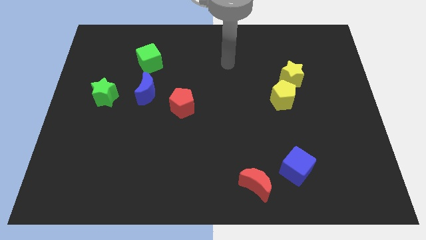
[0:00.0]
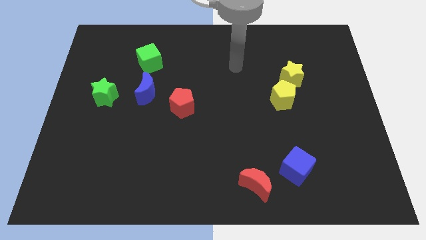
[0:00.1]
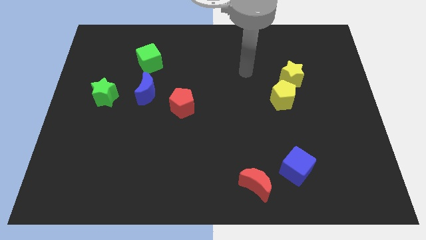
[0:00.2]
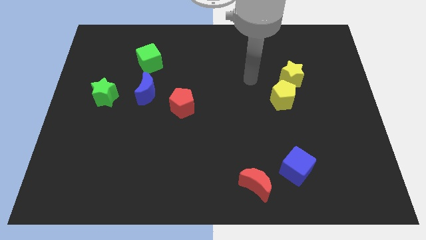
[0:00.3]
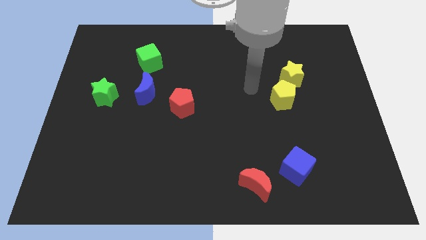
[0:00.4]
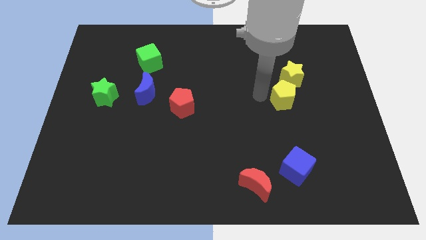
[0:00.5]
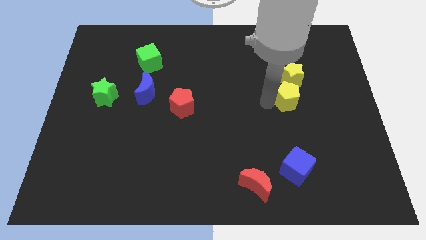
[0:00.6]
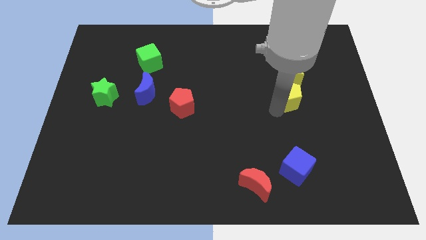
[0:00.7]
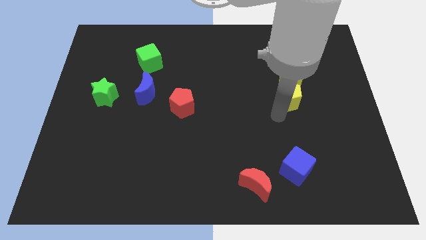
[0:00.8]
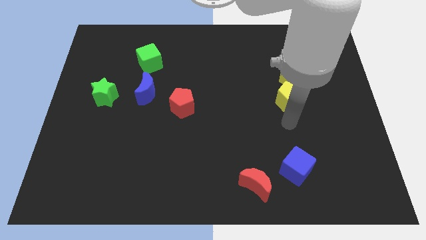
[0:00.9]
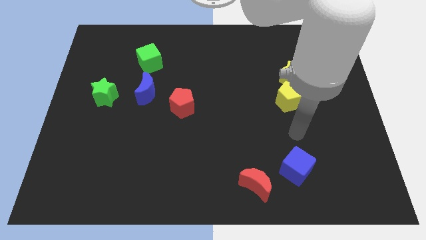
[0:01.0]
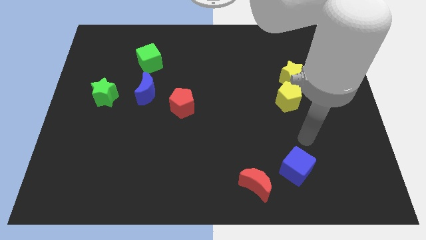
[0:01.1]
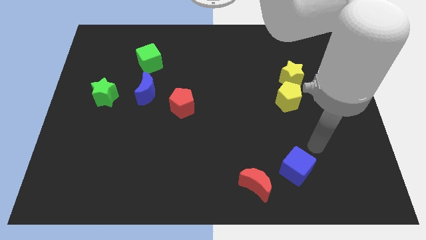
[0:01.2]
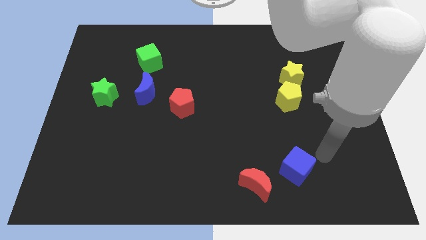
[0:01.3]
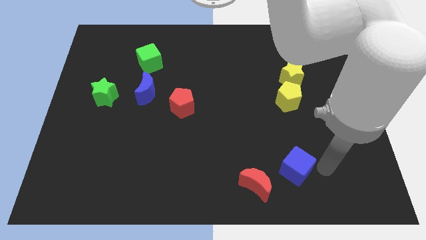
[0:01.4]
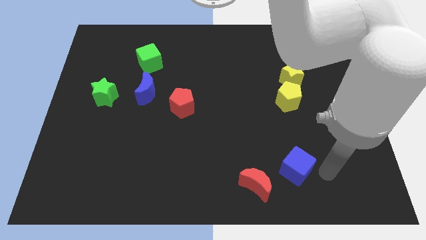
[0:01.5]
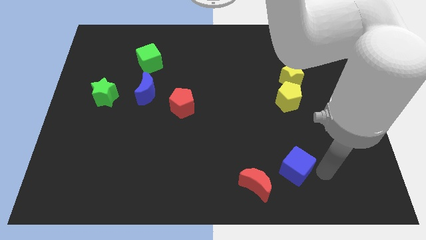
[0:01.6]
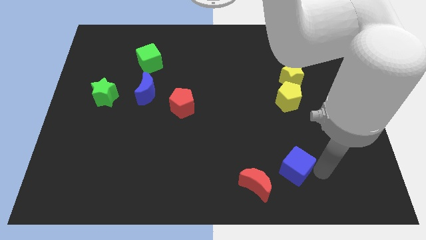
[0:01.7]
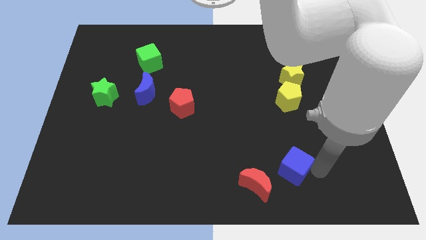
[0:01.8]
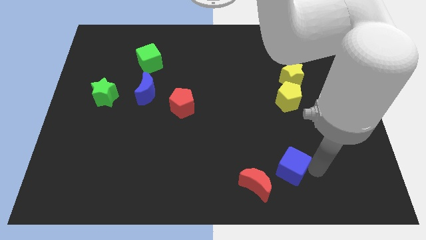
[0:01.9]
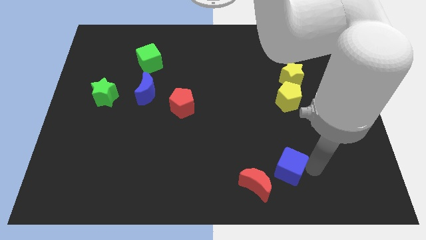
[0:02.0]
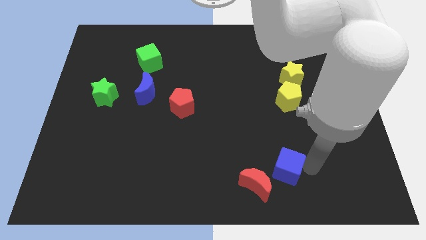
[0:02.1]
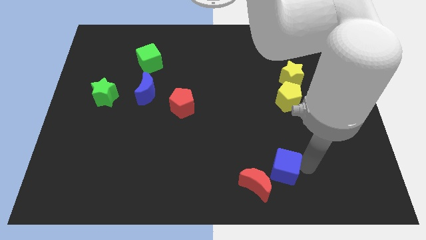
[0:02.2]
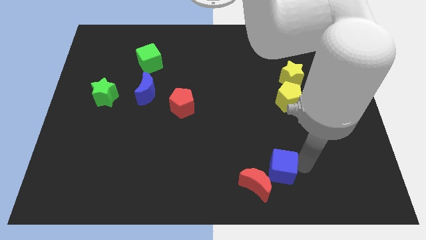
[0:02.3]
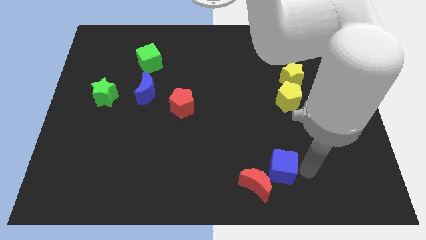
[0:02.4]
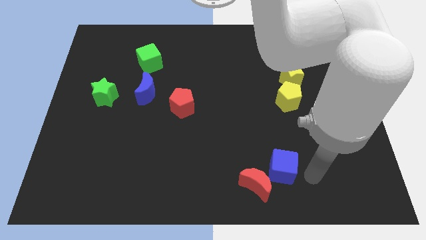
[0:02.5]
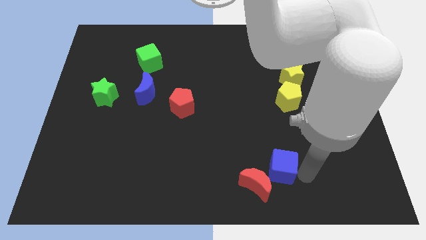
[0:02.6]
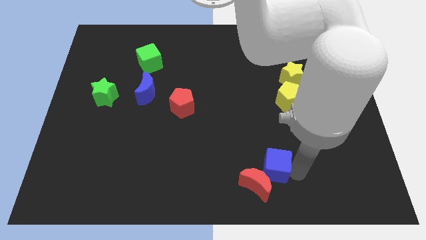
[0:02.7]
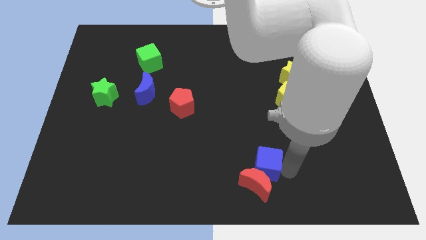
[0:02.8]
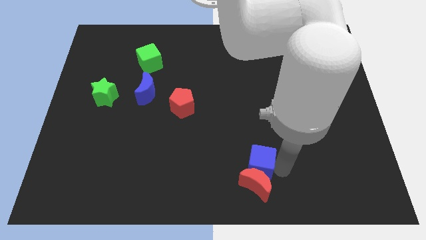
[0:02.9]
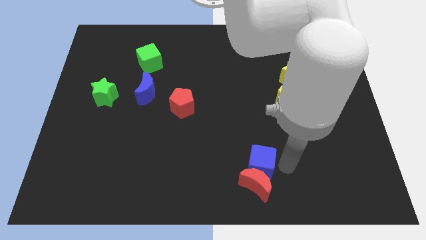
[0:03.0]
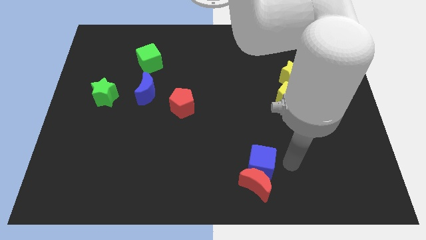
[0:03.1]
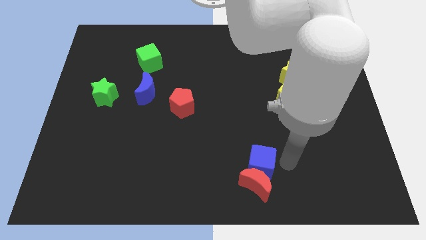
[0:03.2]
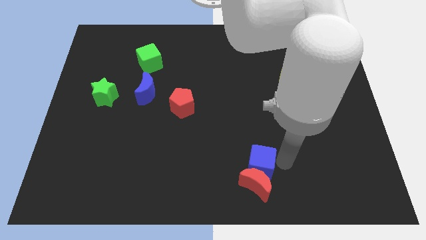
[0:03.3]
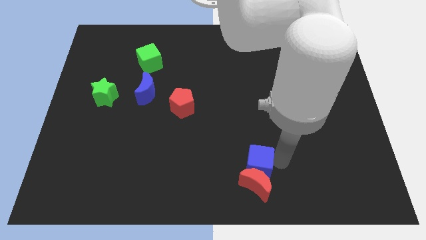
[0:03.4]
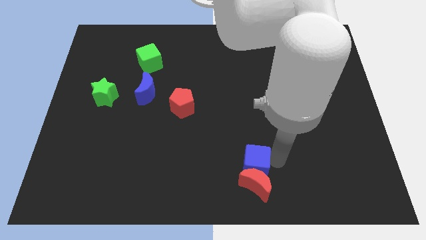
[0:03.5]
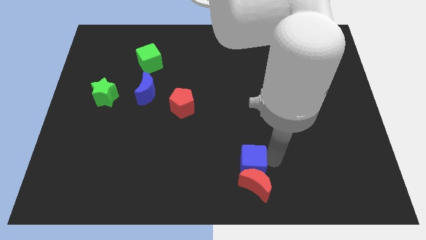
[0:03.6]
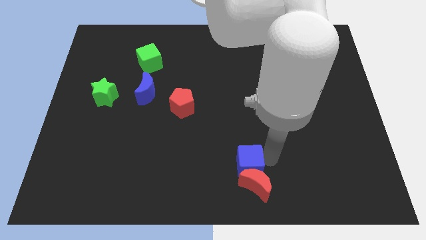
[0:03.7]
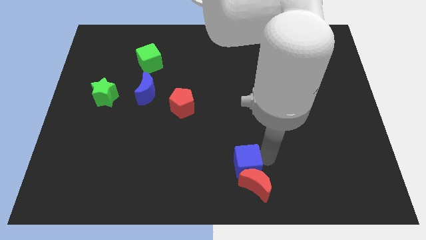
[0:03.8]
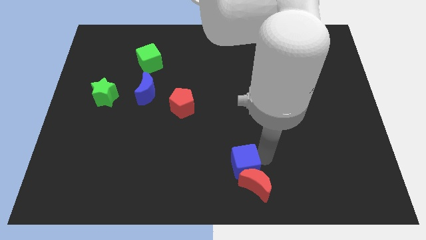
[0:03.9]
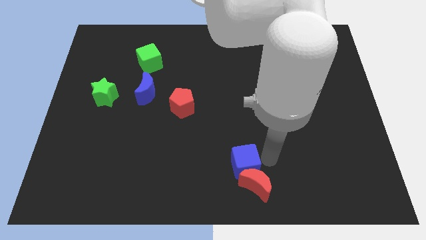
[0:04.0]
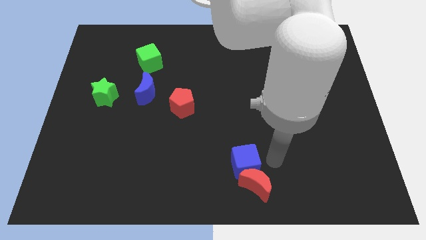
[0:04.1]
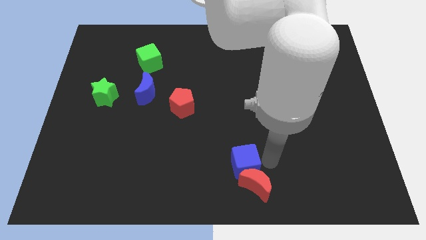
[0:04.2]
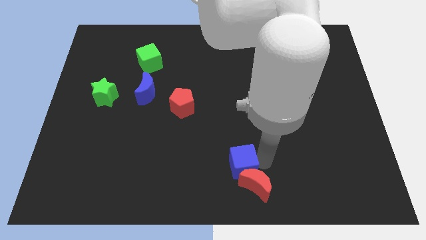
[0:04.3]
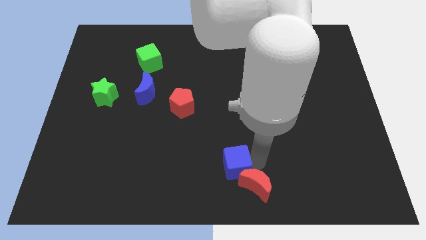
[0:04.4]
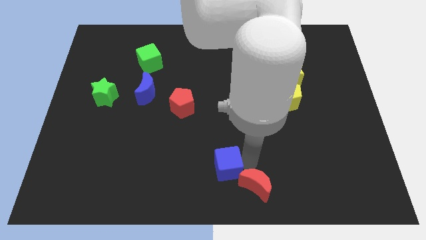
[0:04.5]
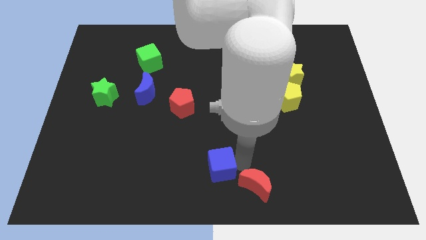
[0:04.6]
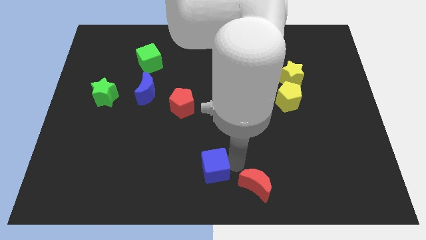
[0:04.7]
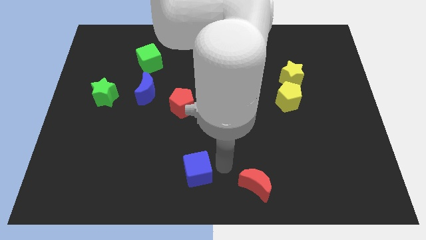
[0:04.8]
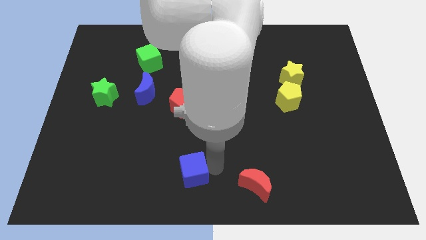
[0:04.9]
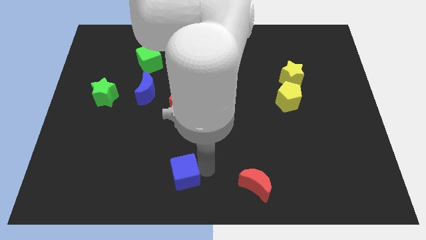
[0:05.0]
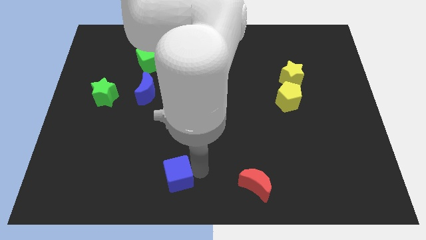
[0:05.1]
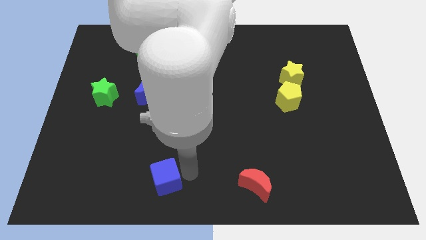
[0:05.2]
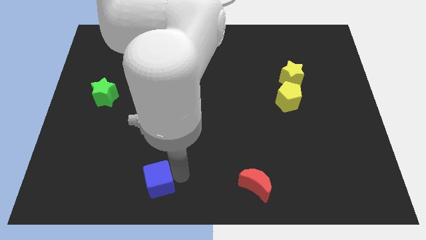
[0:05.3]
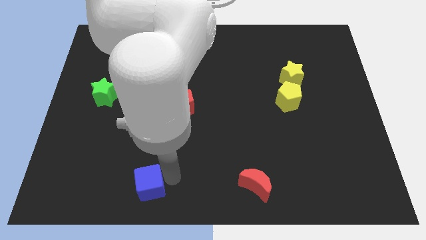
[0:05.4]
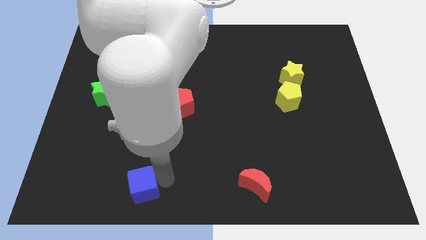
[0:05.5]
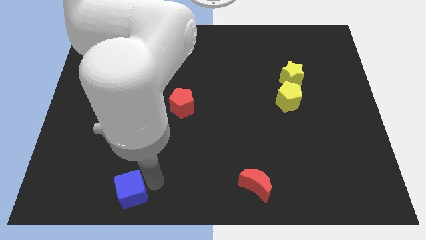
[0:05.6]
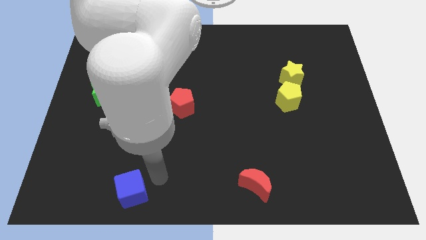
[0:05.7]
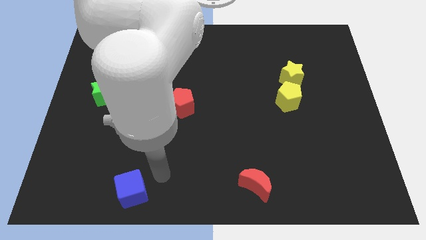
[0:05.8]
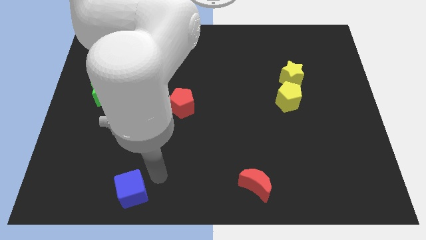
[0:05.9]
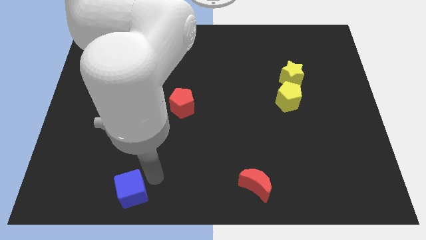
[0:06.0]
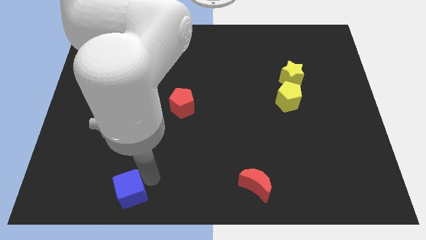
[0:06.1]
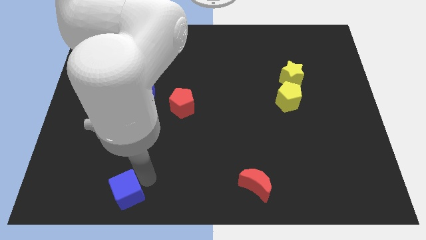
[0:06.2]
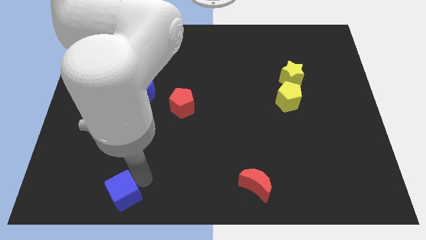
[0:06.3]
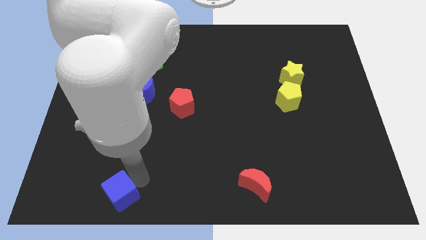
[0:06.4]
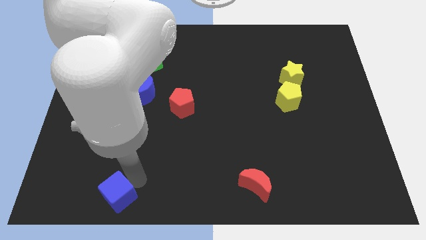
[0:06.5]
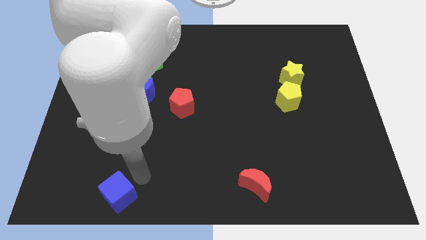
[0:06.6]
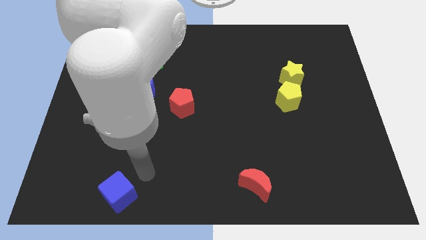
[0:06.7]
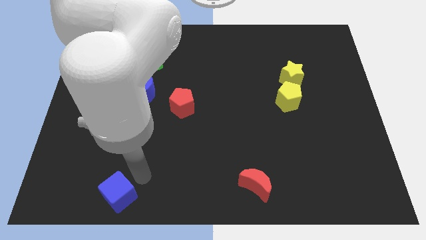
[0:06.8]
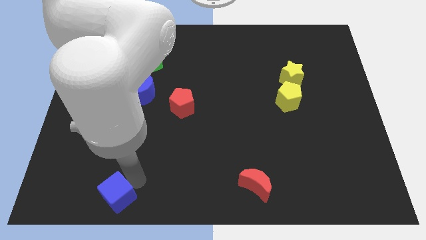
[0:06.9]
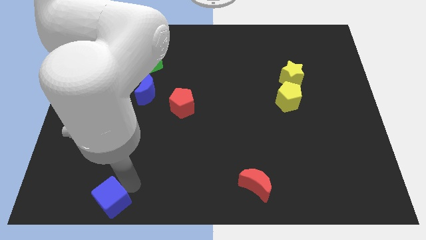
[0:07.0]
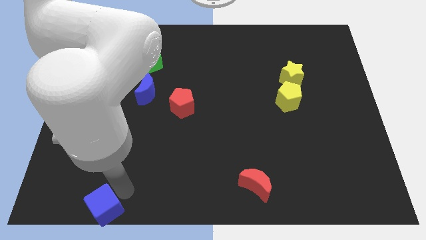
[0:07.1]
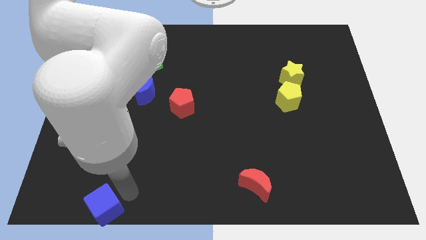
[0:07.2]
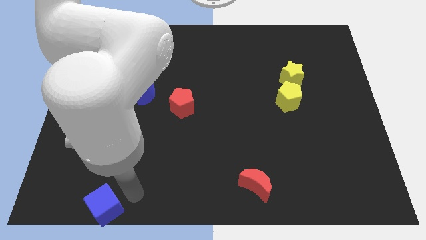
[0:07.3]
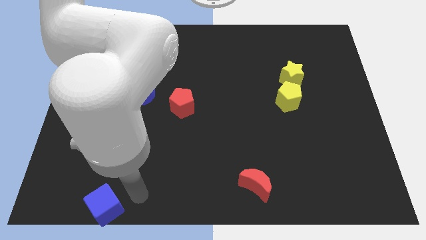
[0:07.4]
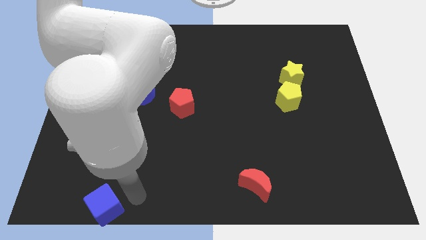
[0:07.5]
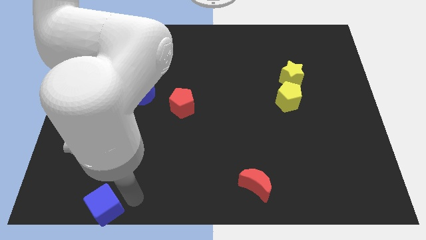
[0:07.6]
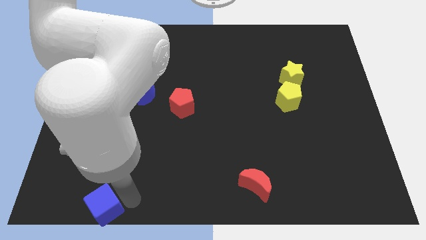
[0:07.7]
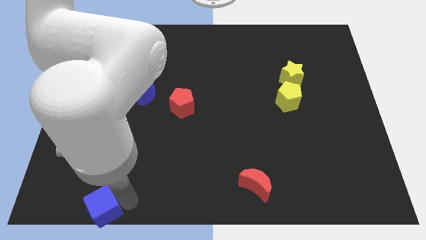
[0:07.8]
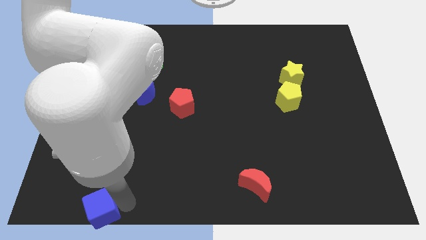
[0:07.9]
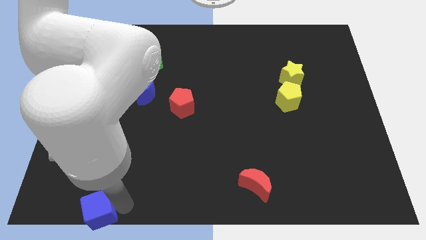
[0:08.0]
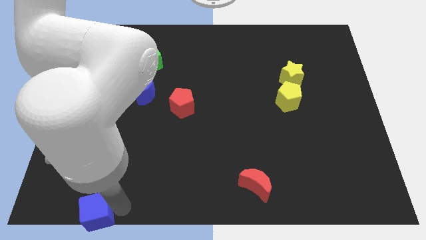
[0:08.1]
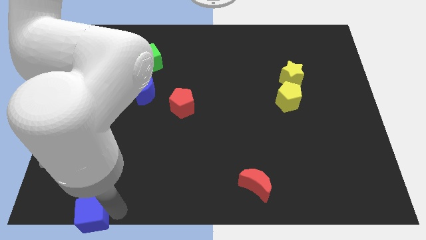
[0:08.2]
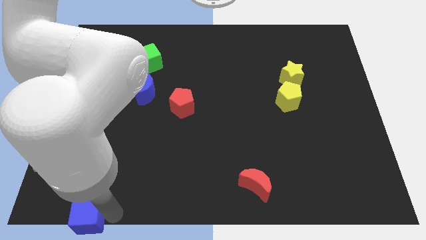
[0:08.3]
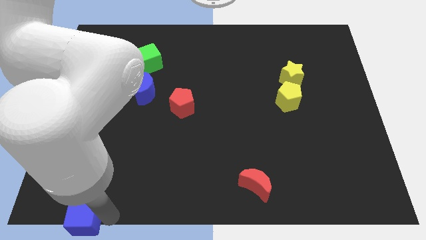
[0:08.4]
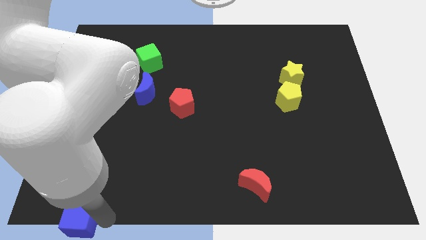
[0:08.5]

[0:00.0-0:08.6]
put the blue cube to the lower left corner
